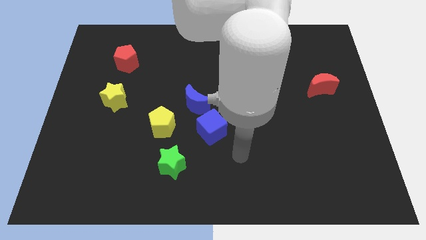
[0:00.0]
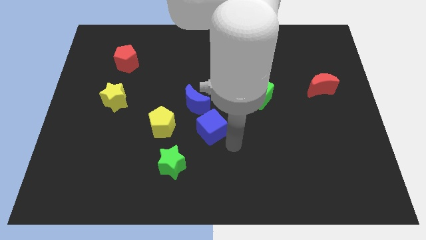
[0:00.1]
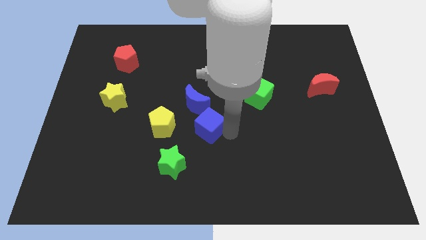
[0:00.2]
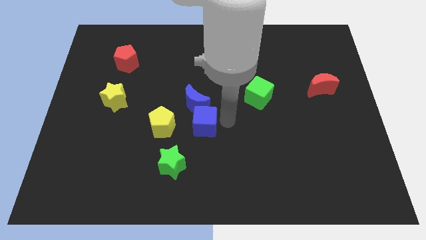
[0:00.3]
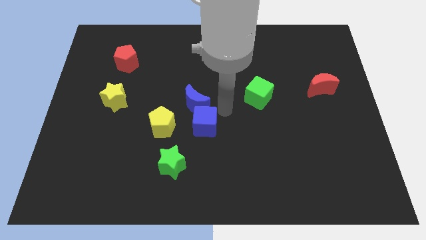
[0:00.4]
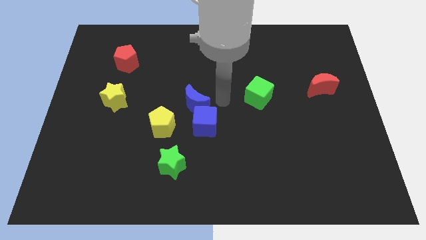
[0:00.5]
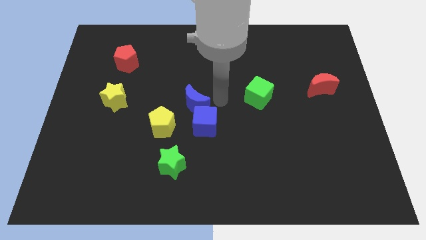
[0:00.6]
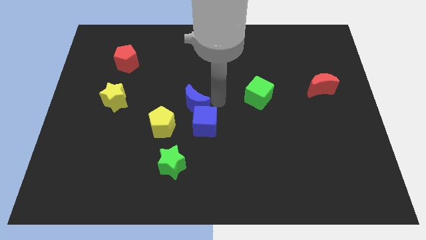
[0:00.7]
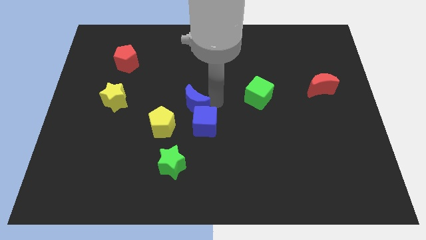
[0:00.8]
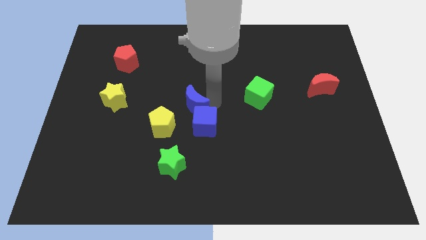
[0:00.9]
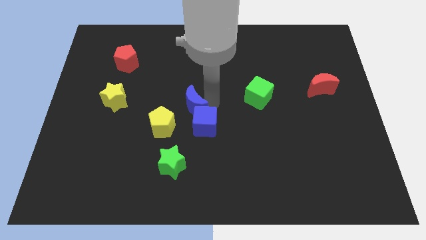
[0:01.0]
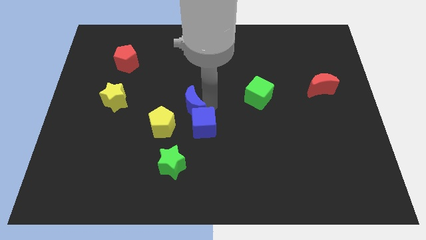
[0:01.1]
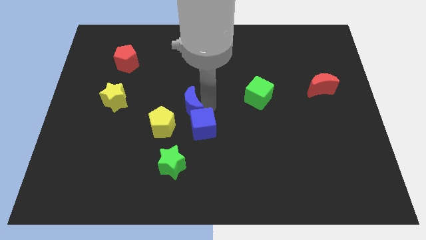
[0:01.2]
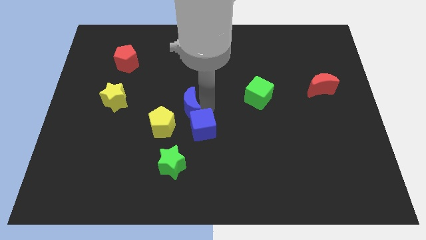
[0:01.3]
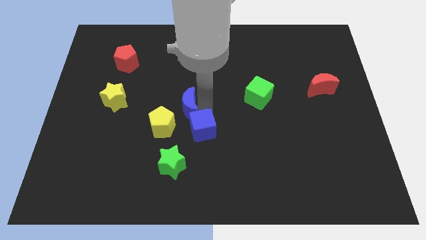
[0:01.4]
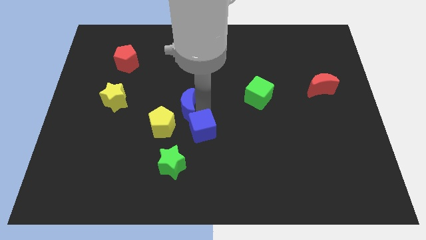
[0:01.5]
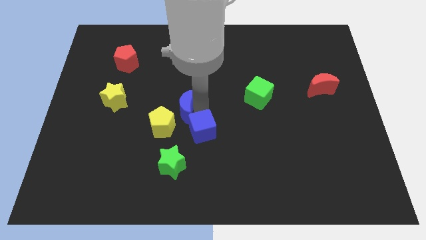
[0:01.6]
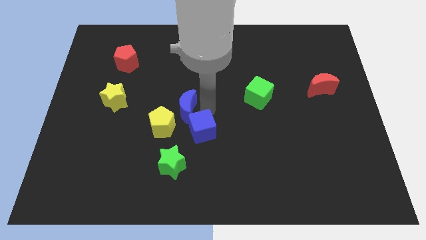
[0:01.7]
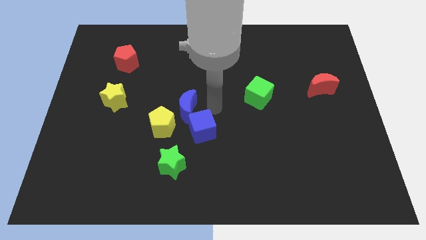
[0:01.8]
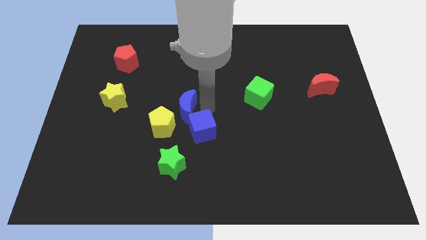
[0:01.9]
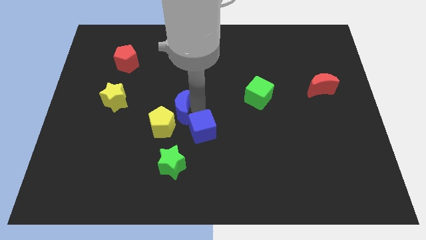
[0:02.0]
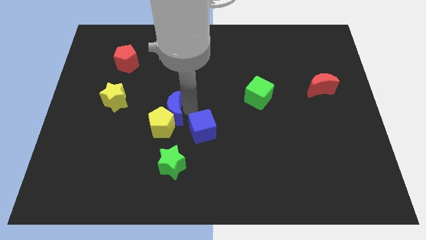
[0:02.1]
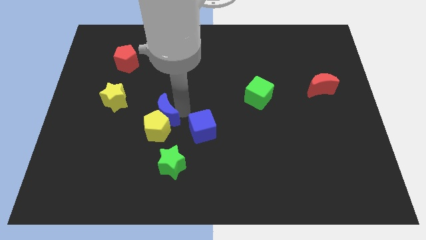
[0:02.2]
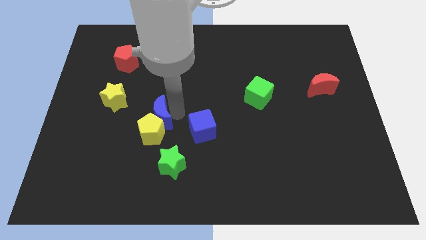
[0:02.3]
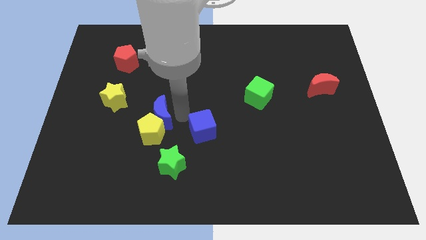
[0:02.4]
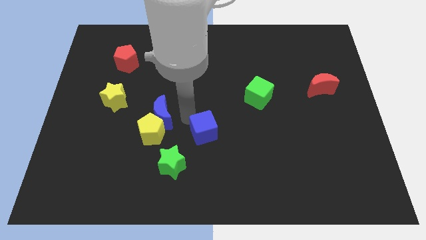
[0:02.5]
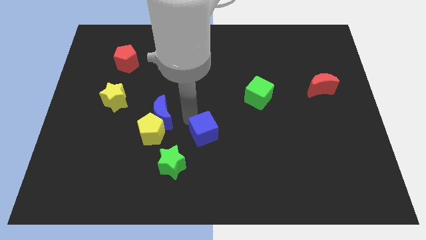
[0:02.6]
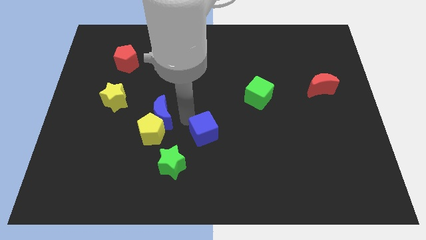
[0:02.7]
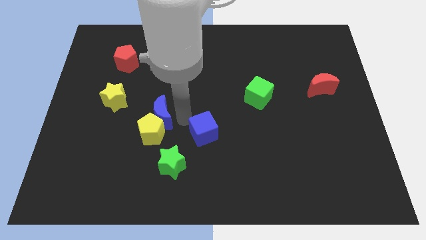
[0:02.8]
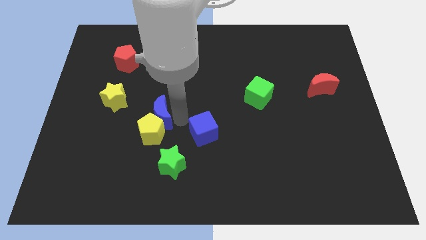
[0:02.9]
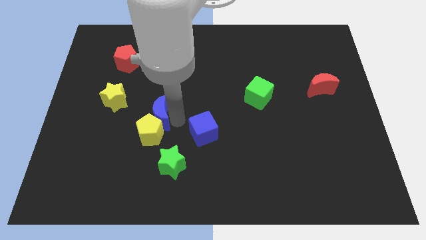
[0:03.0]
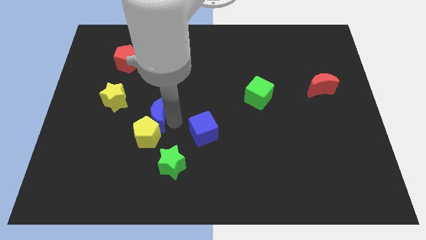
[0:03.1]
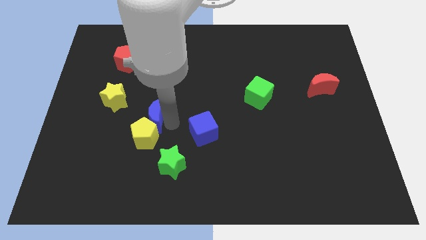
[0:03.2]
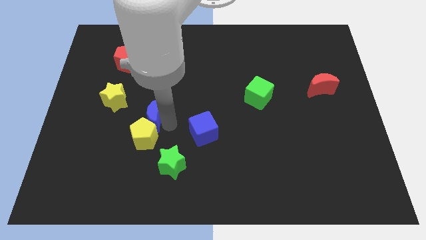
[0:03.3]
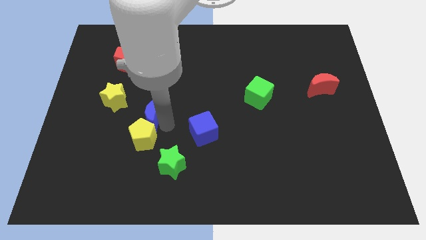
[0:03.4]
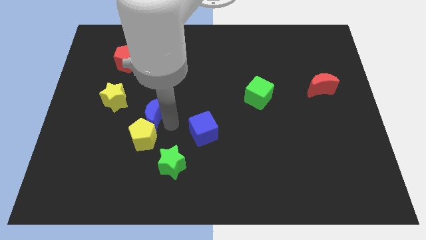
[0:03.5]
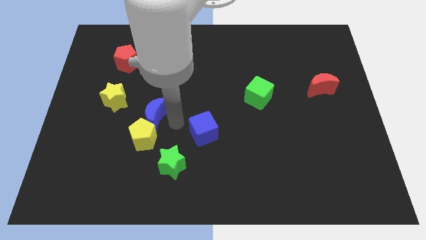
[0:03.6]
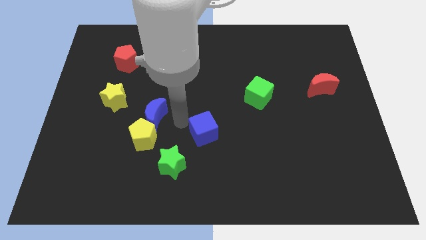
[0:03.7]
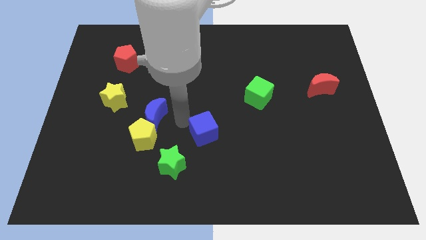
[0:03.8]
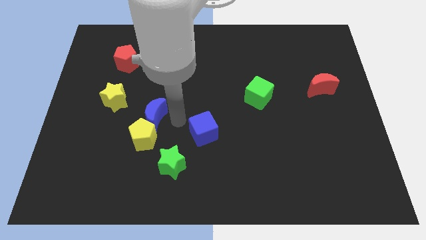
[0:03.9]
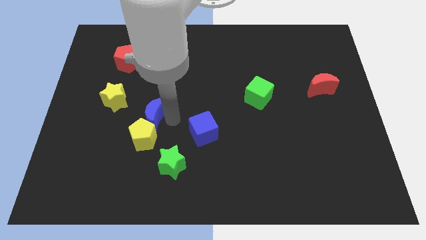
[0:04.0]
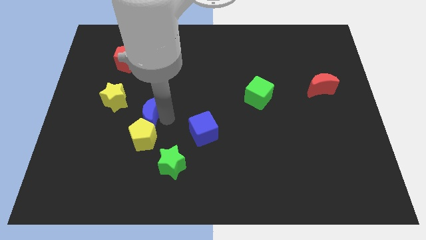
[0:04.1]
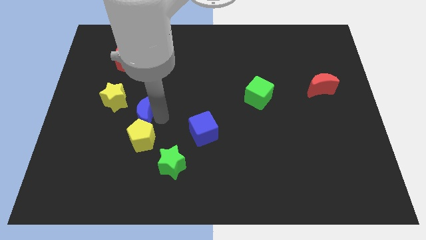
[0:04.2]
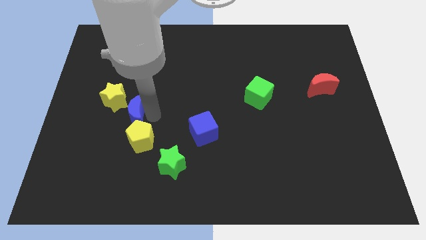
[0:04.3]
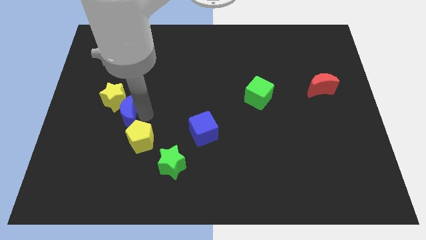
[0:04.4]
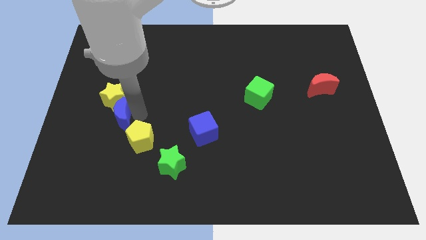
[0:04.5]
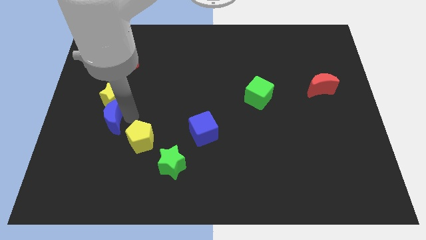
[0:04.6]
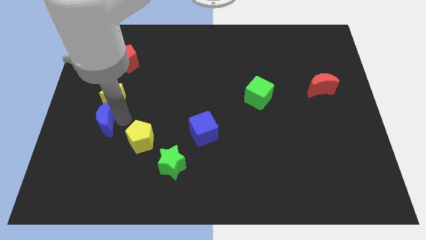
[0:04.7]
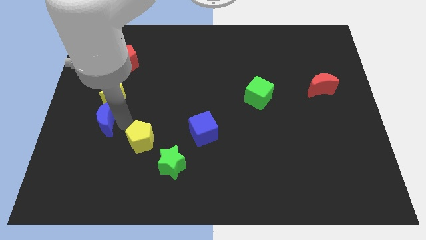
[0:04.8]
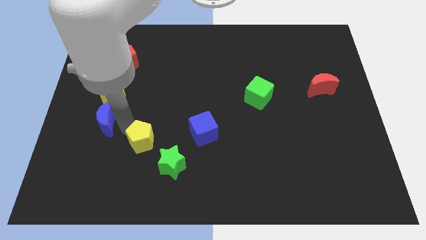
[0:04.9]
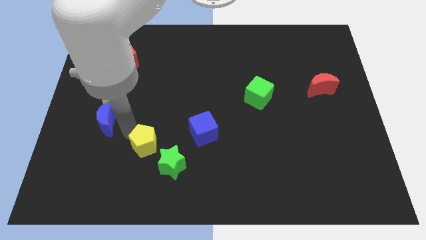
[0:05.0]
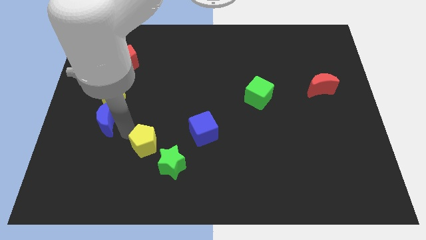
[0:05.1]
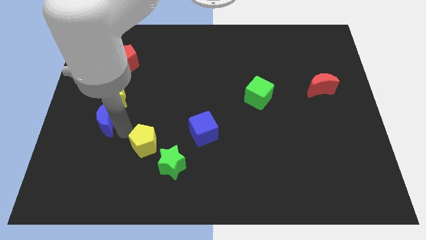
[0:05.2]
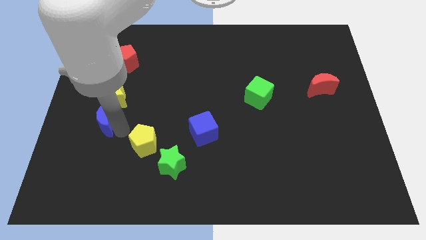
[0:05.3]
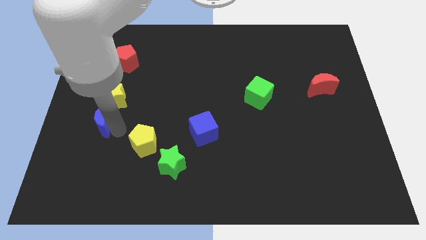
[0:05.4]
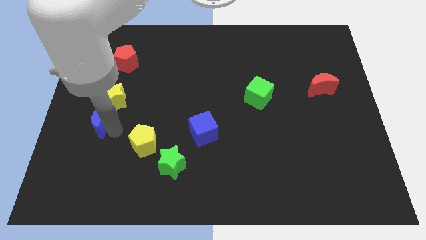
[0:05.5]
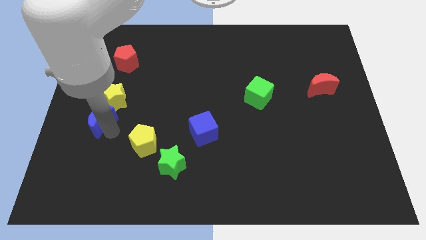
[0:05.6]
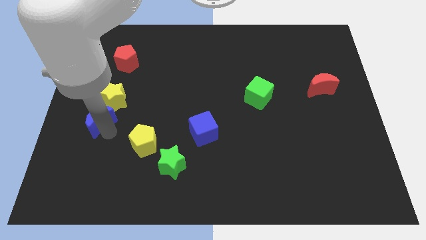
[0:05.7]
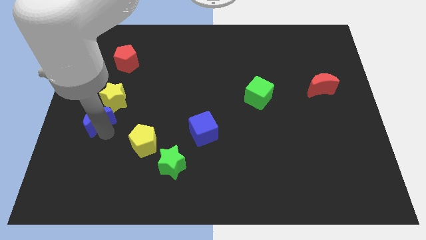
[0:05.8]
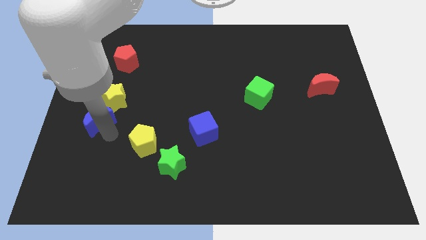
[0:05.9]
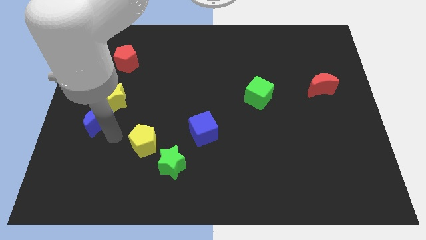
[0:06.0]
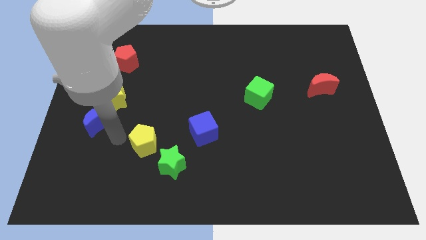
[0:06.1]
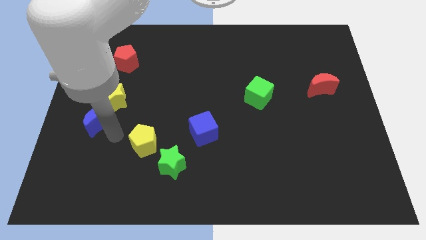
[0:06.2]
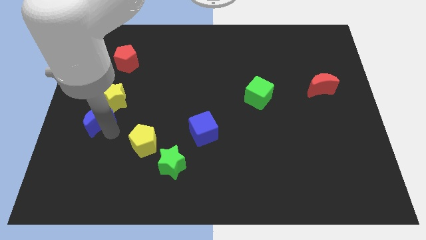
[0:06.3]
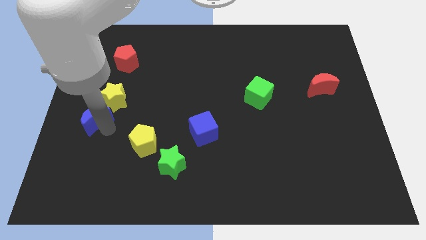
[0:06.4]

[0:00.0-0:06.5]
slide the blue moon to the left side
